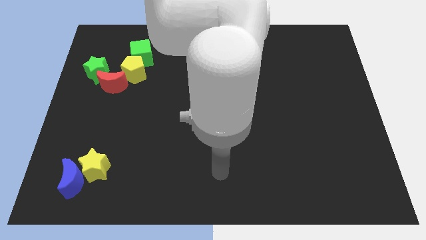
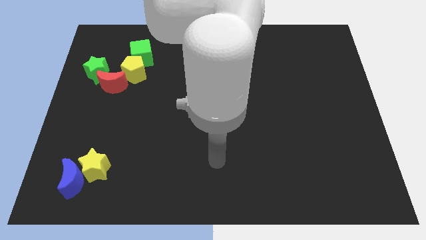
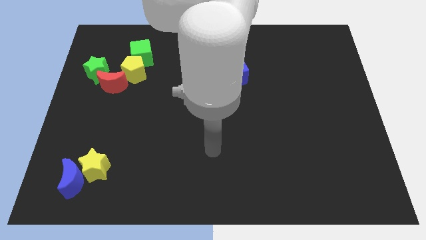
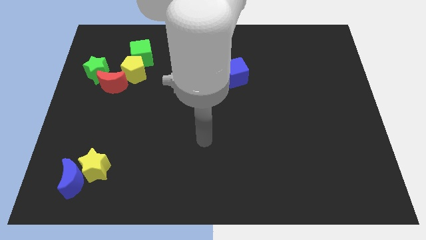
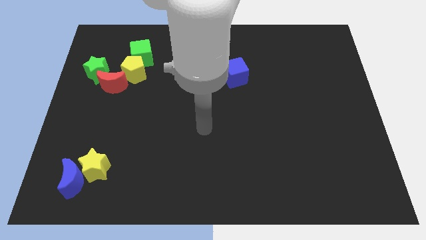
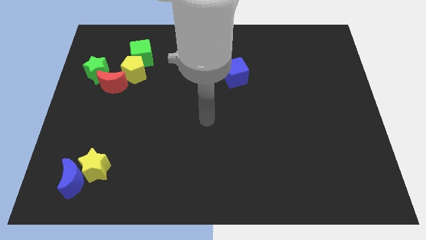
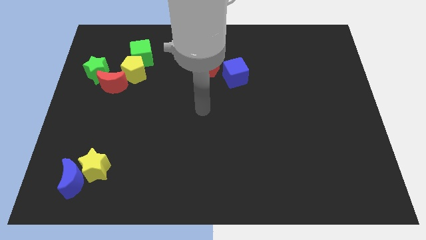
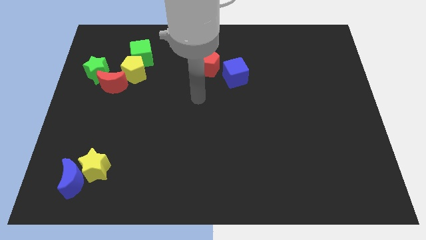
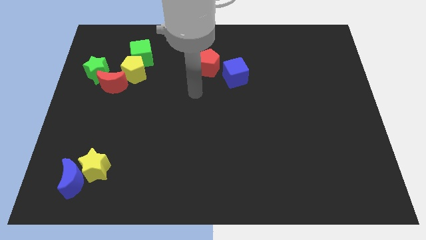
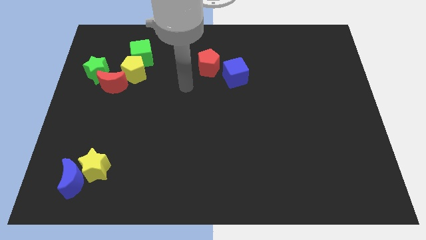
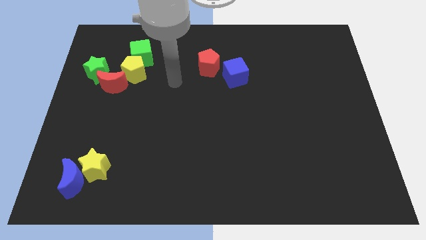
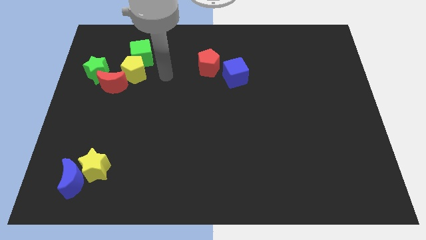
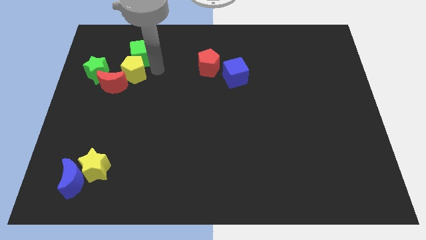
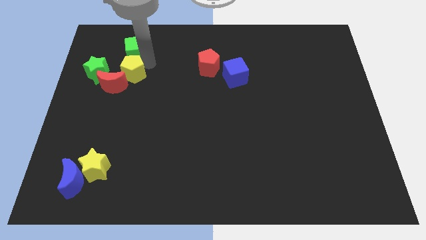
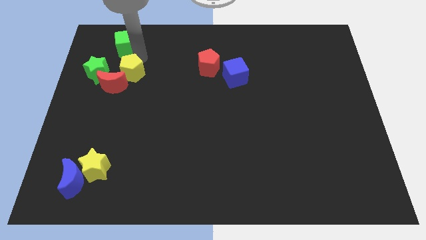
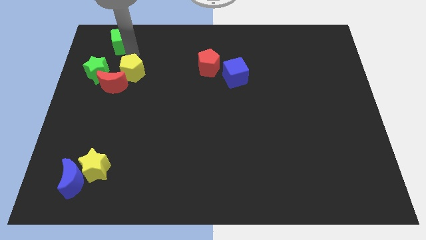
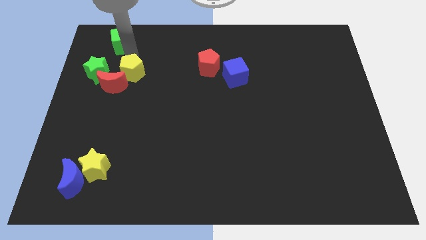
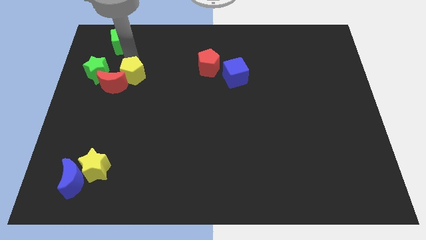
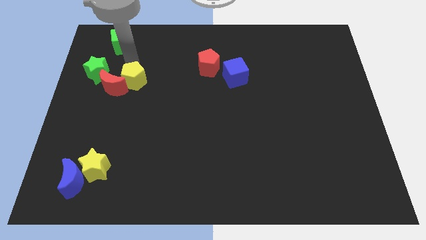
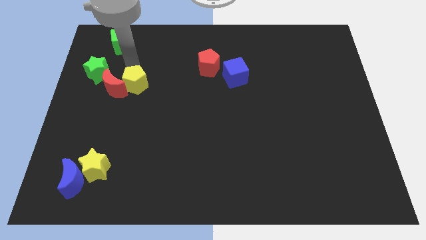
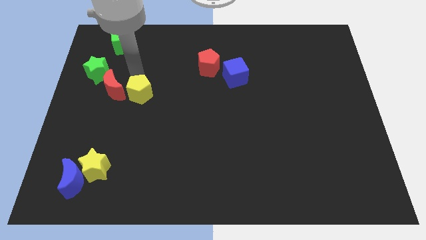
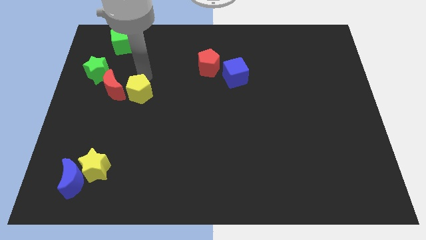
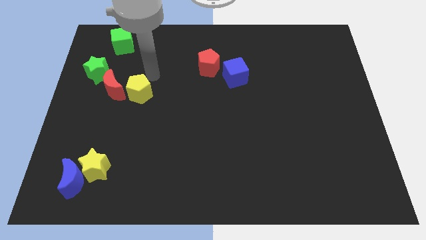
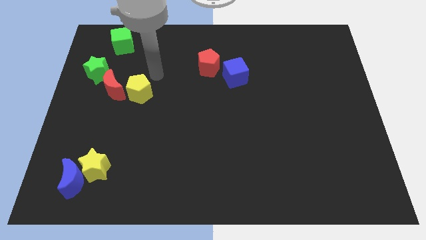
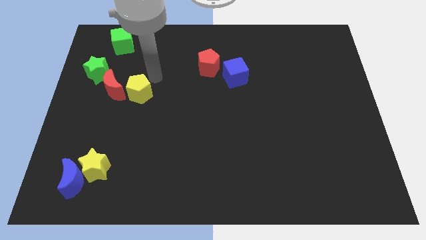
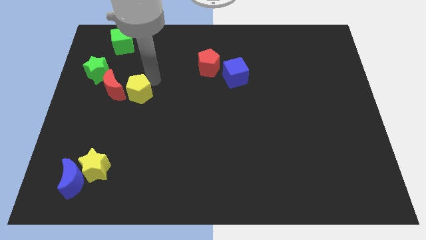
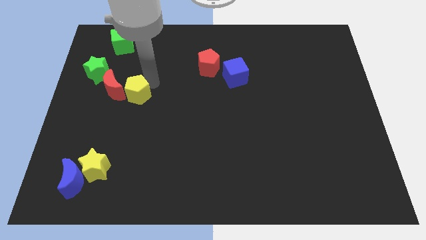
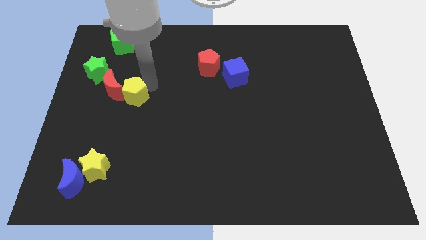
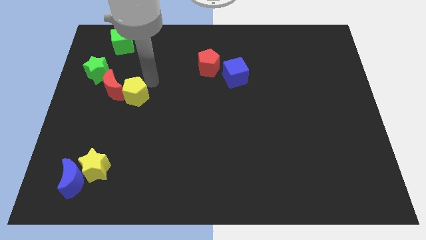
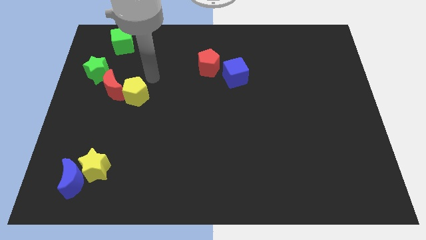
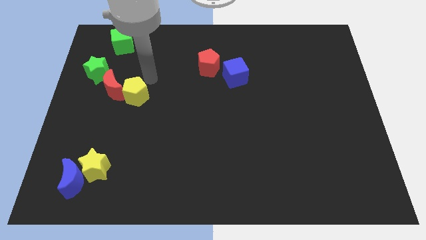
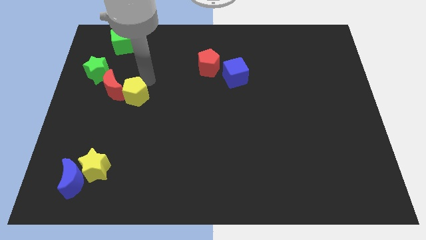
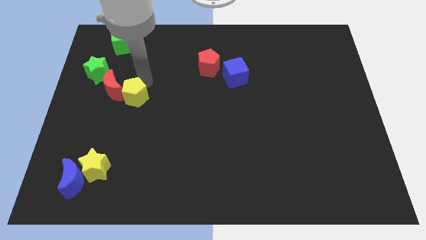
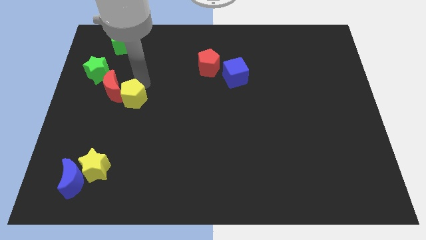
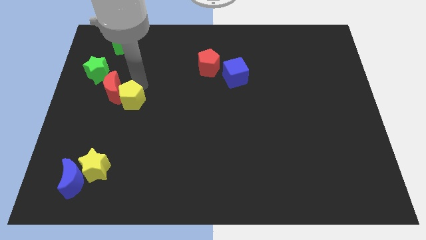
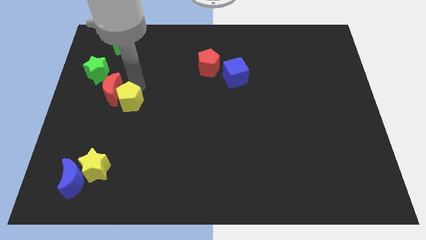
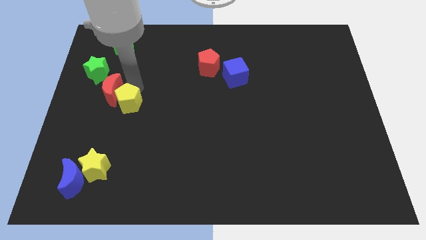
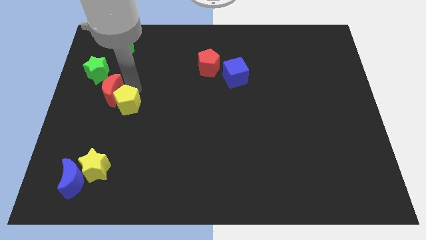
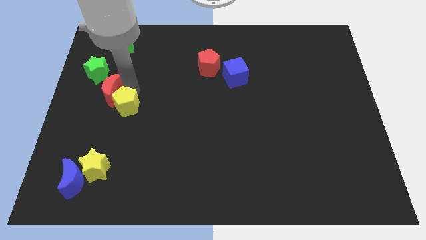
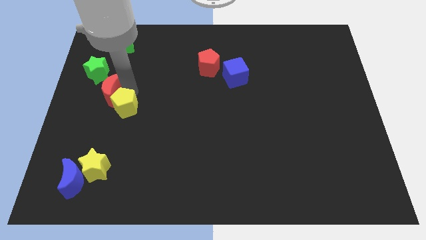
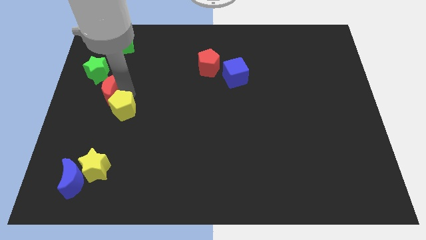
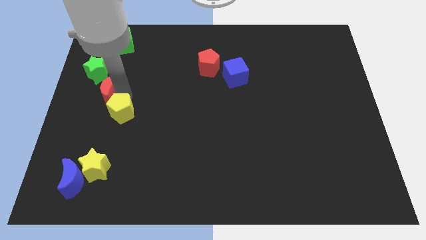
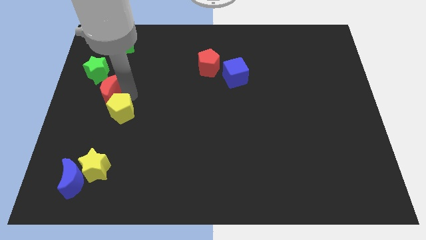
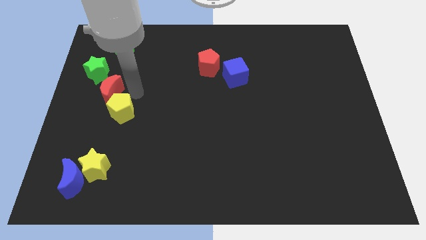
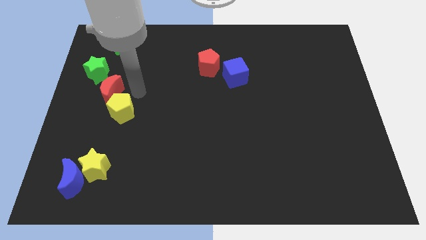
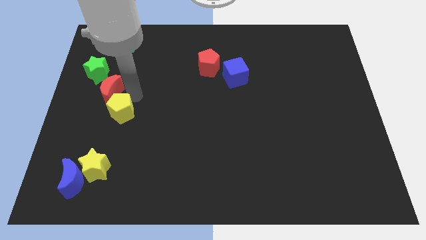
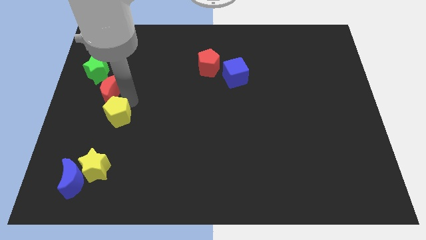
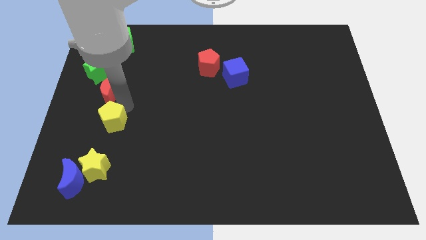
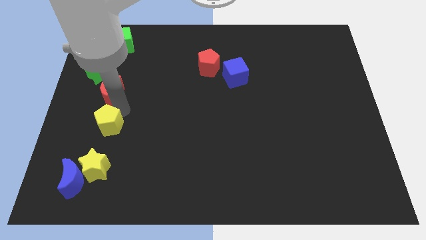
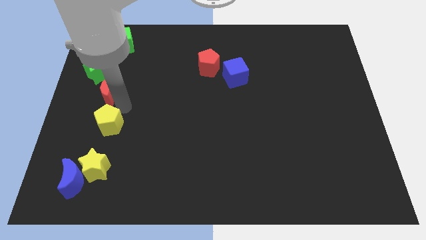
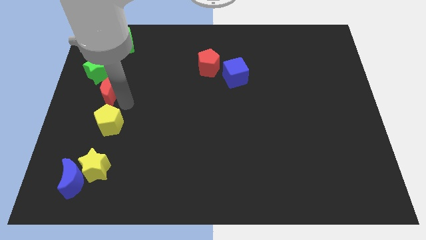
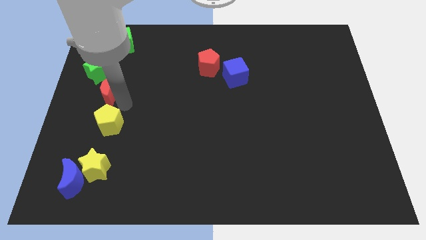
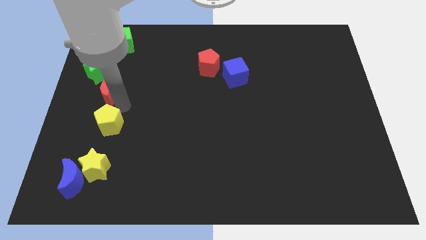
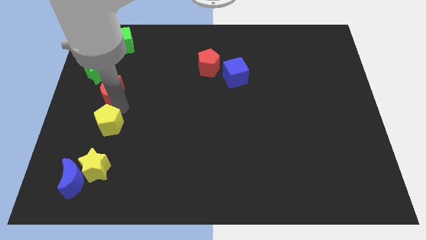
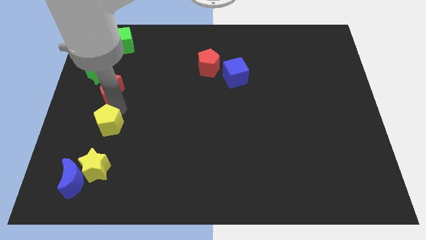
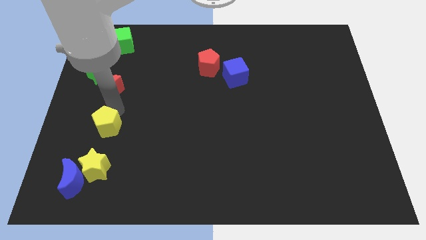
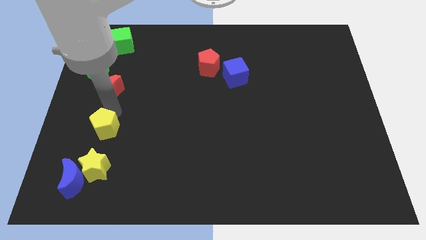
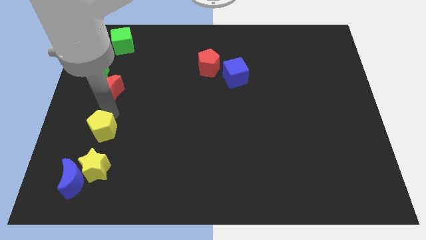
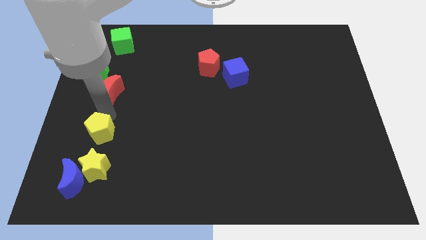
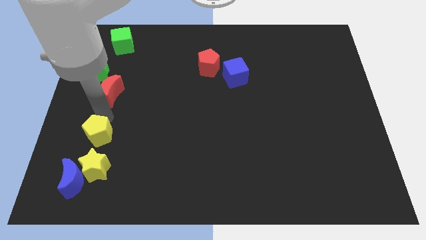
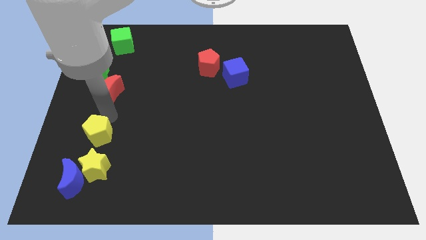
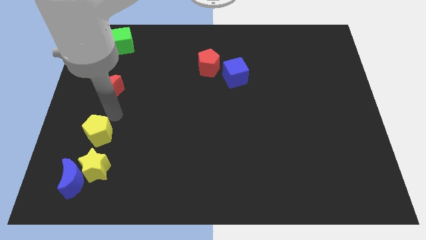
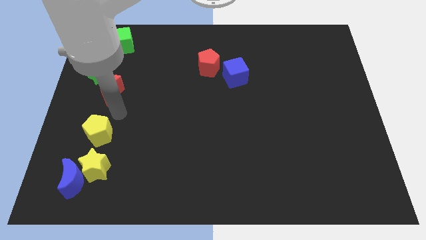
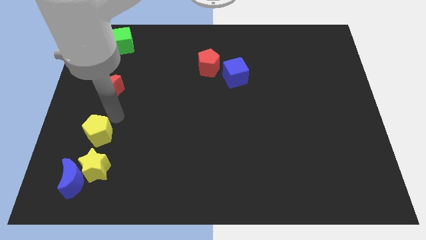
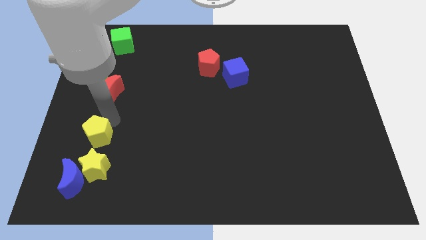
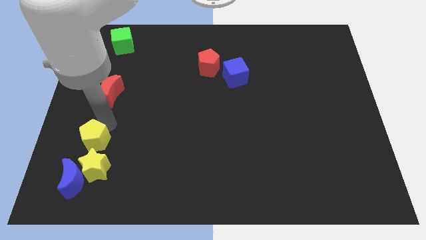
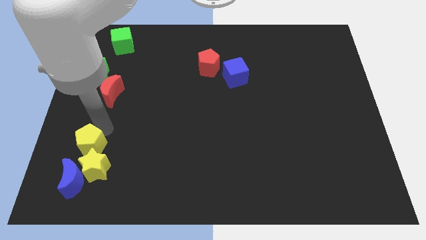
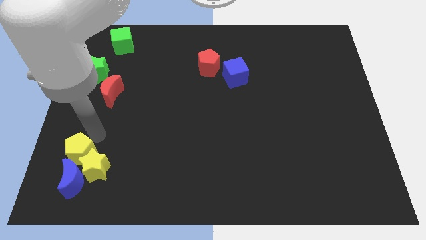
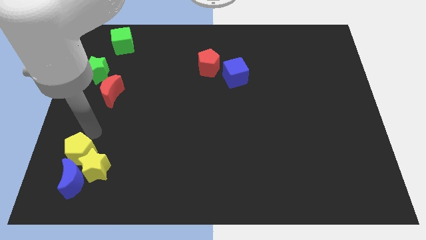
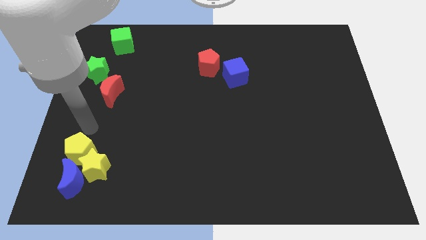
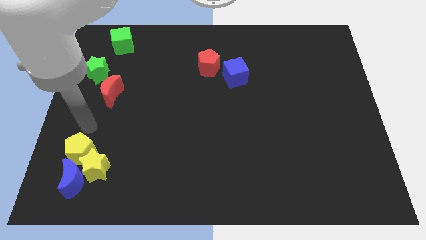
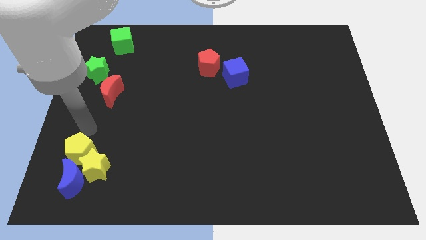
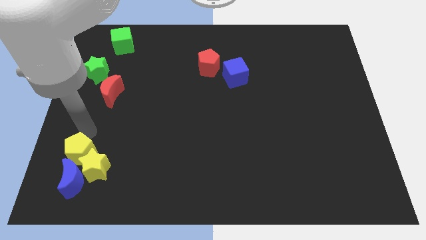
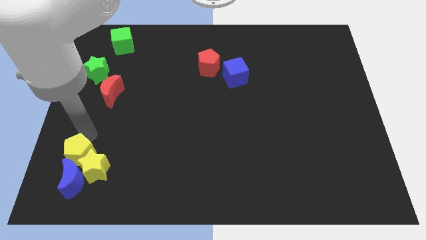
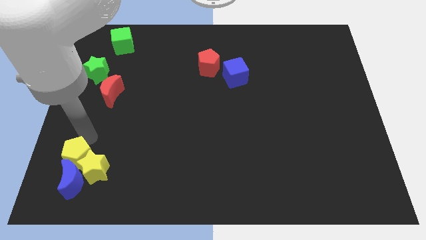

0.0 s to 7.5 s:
slide the yellow pentagon close to the blue moon
